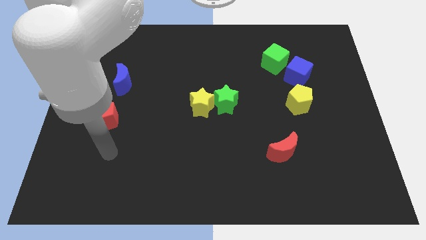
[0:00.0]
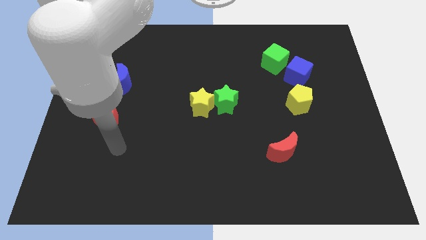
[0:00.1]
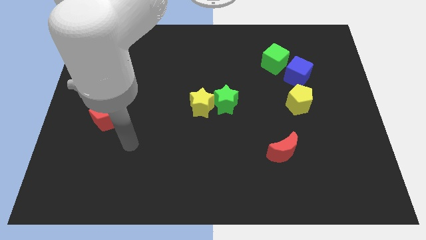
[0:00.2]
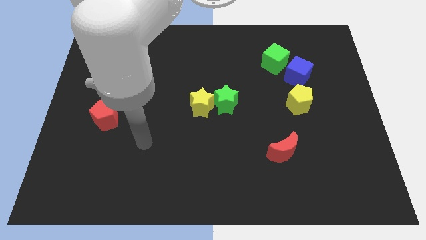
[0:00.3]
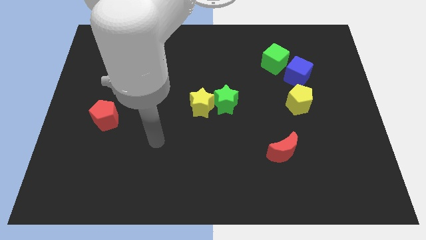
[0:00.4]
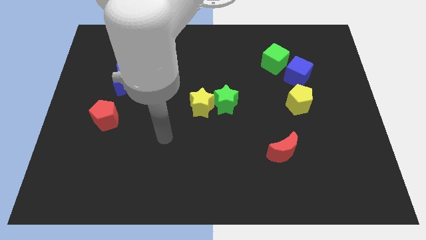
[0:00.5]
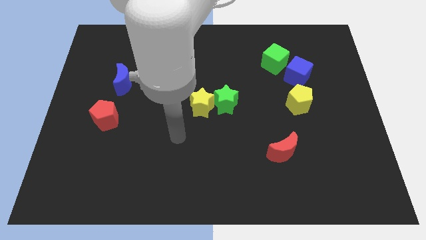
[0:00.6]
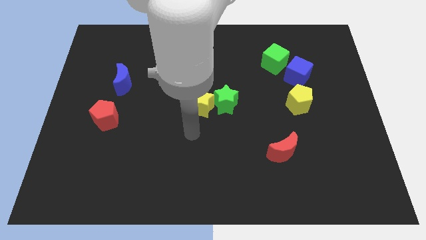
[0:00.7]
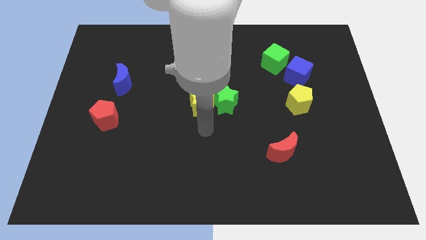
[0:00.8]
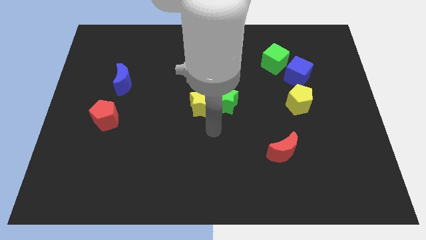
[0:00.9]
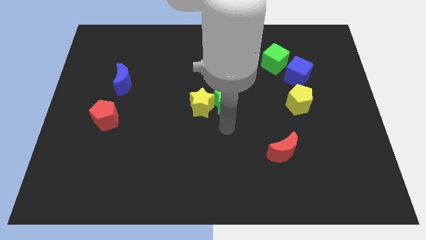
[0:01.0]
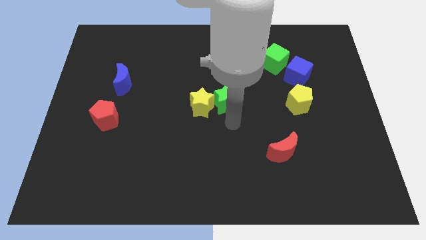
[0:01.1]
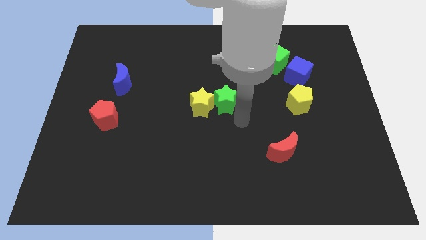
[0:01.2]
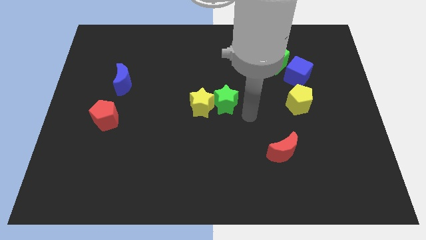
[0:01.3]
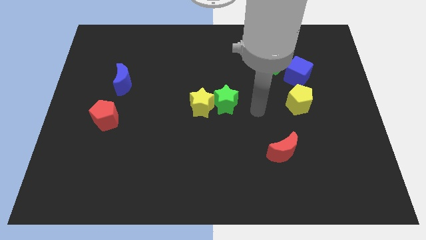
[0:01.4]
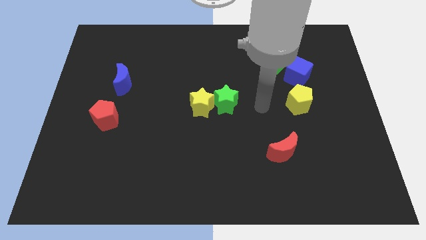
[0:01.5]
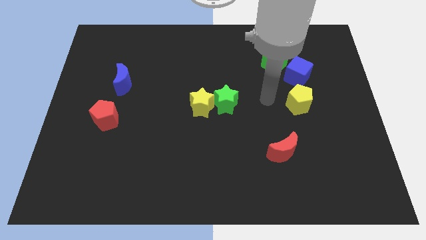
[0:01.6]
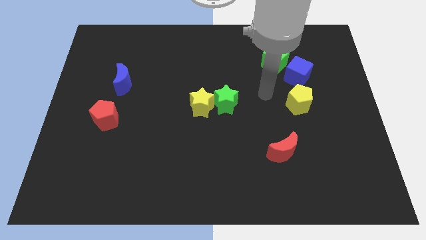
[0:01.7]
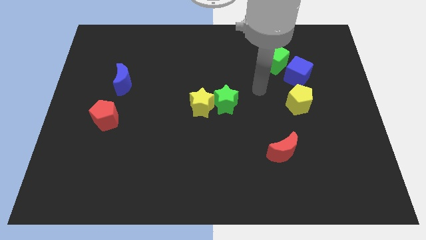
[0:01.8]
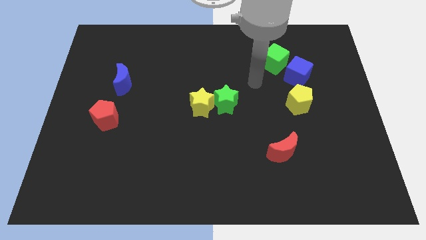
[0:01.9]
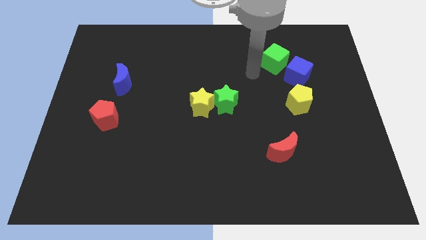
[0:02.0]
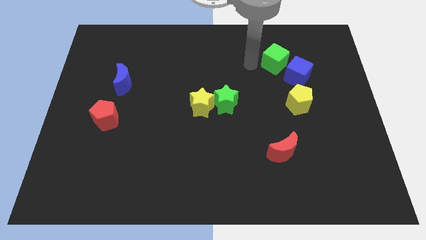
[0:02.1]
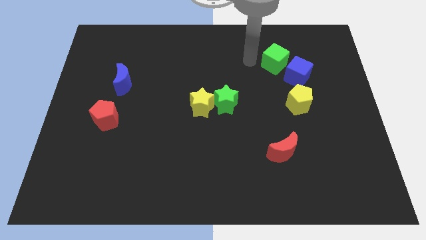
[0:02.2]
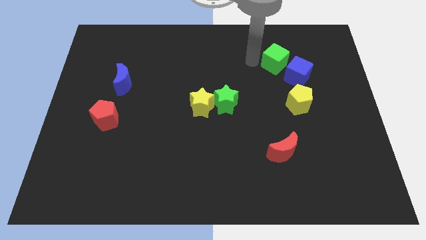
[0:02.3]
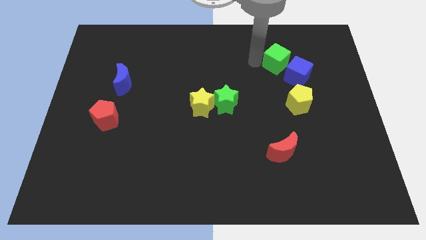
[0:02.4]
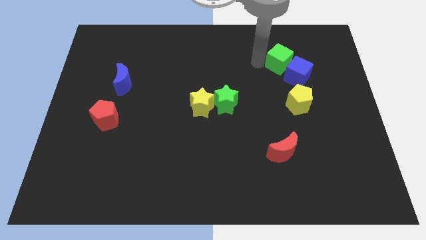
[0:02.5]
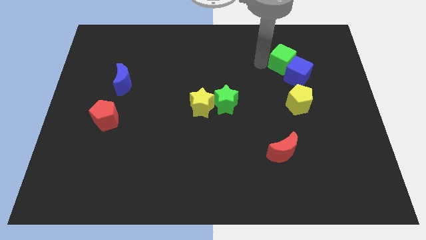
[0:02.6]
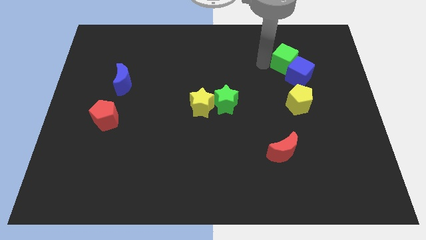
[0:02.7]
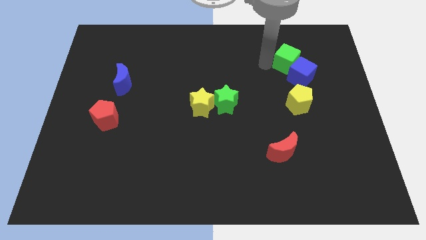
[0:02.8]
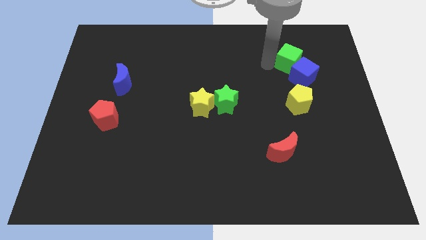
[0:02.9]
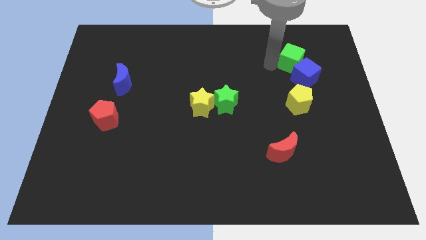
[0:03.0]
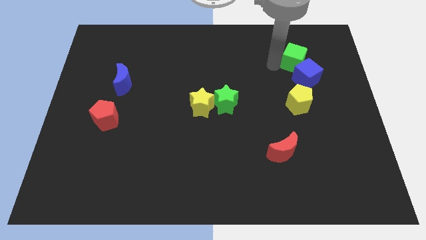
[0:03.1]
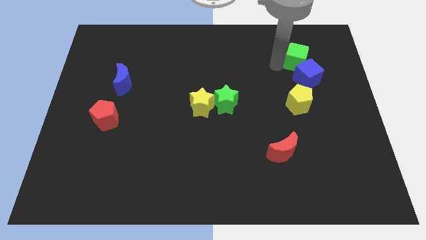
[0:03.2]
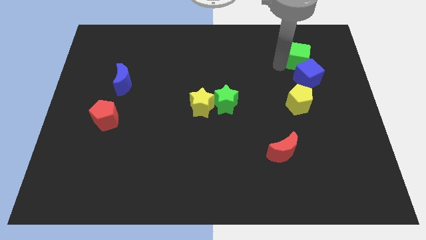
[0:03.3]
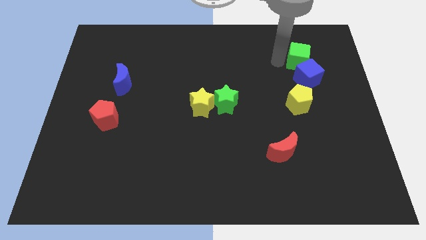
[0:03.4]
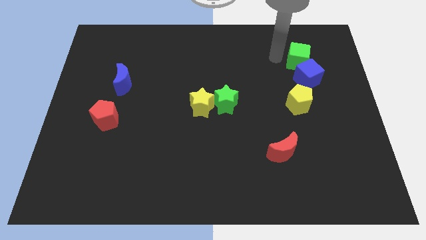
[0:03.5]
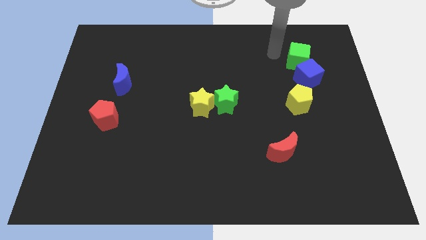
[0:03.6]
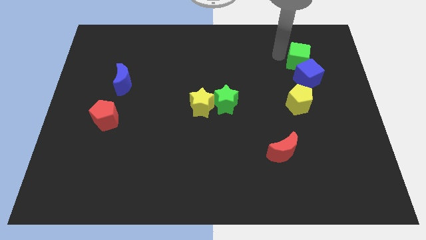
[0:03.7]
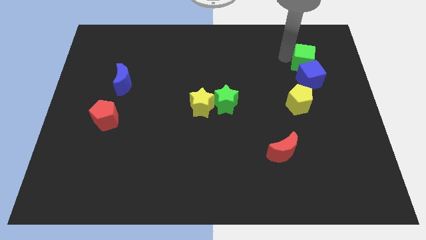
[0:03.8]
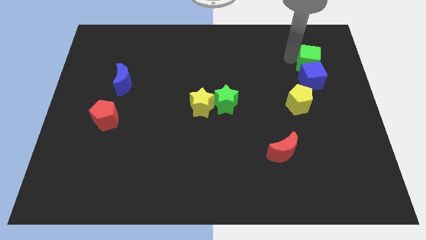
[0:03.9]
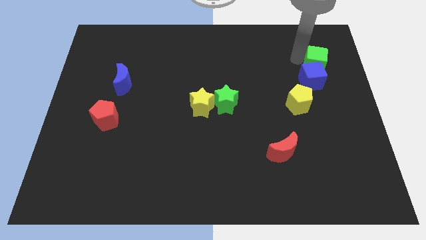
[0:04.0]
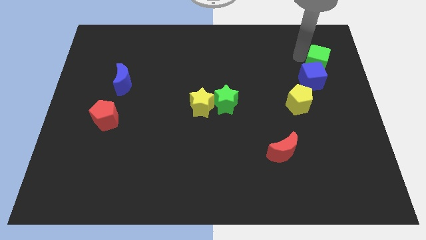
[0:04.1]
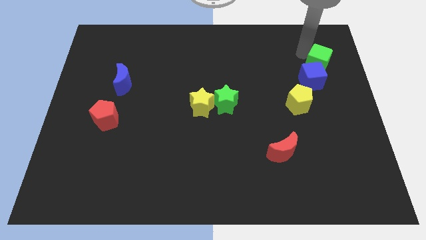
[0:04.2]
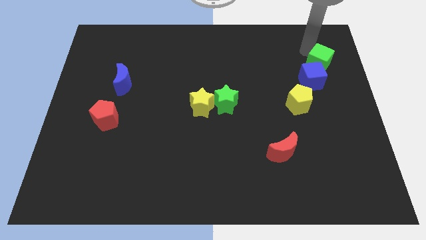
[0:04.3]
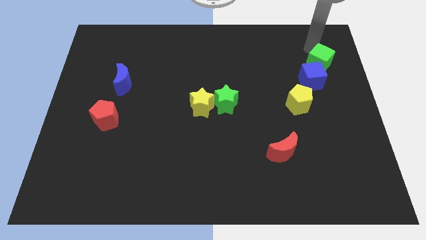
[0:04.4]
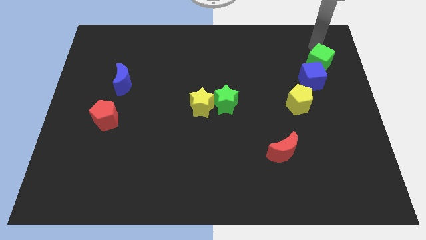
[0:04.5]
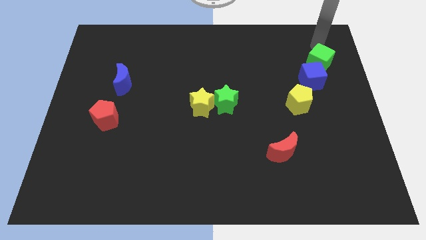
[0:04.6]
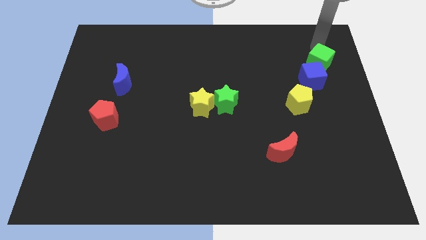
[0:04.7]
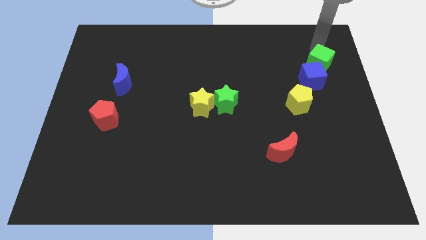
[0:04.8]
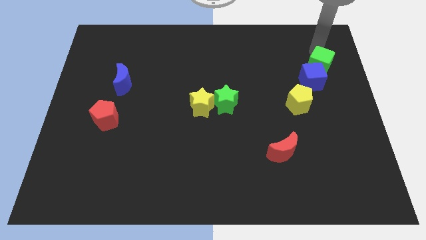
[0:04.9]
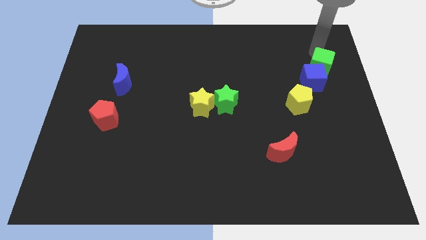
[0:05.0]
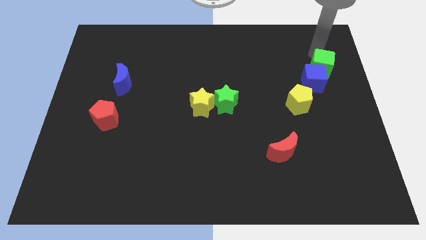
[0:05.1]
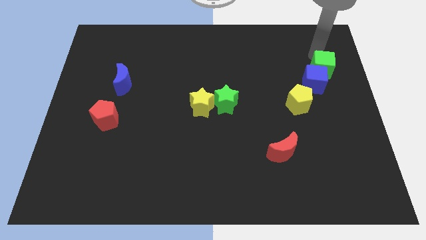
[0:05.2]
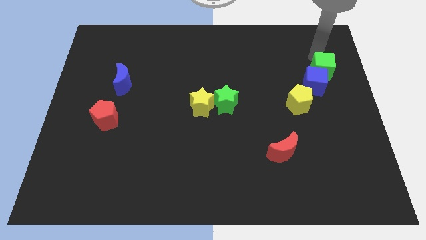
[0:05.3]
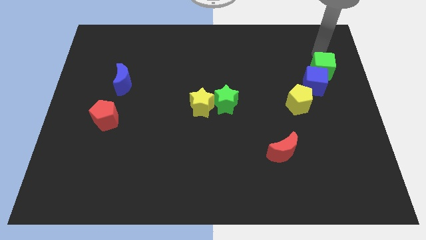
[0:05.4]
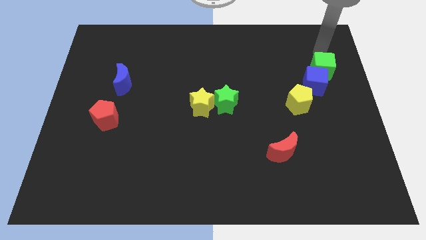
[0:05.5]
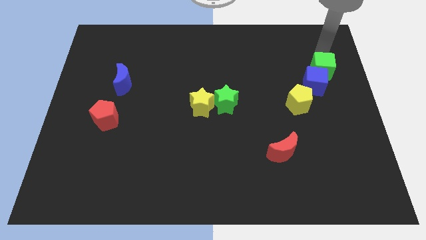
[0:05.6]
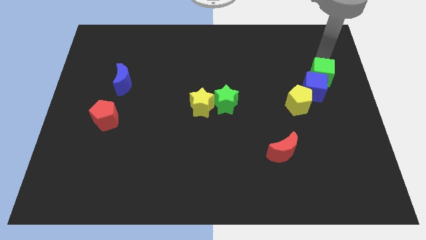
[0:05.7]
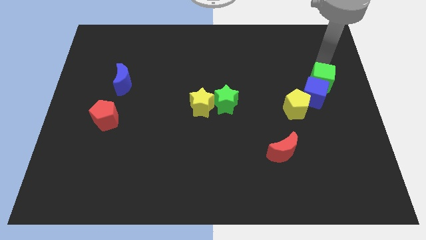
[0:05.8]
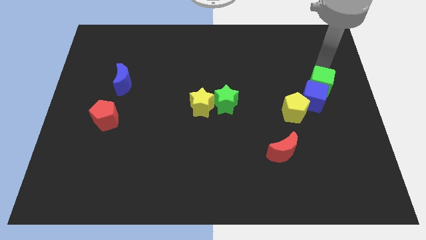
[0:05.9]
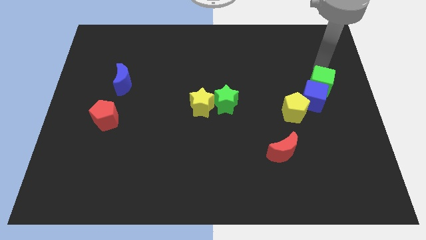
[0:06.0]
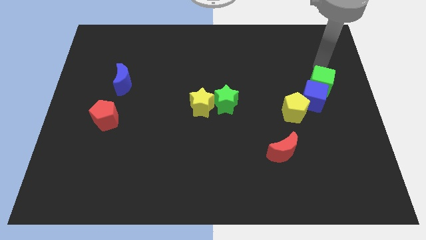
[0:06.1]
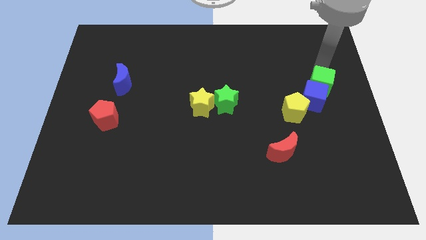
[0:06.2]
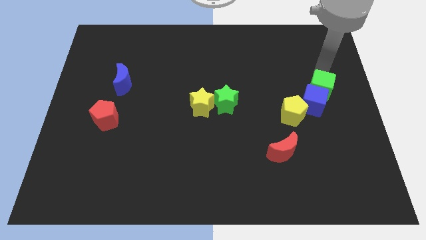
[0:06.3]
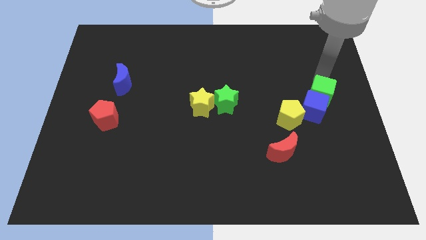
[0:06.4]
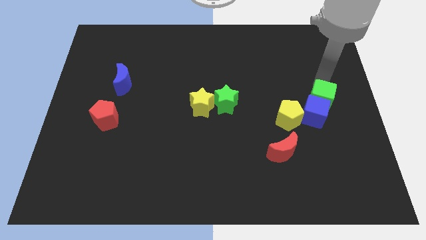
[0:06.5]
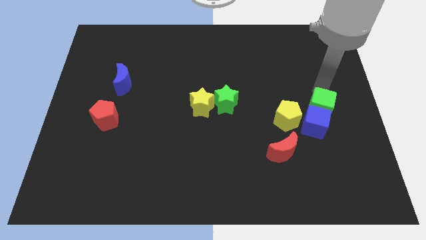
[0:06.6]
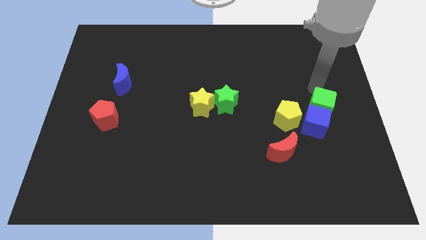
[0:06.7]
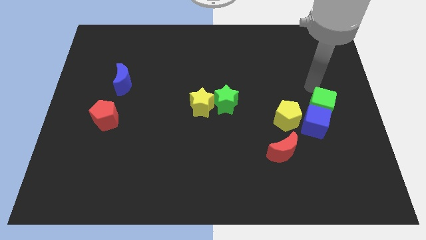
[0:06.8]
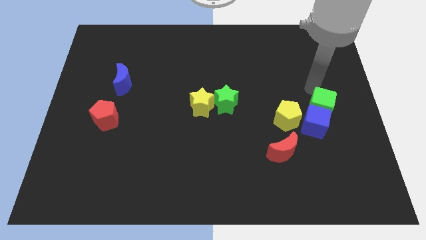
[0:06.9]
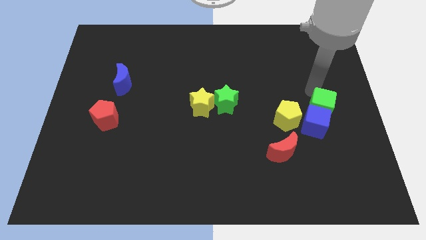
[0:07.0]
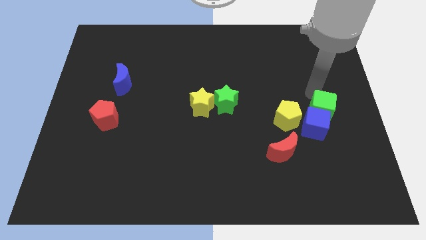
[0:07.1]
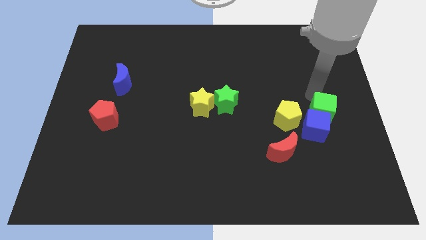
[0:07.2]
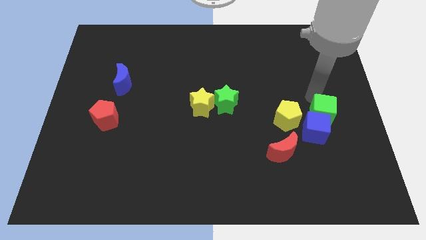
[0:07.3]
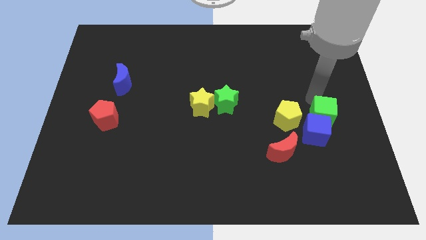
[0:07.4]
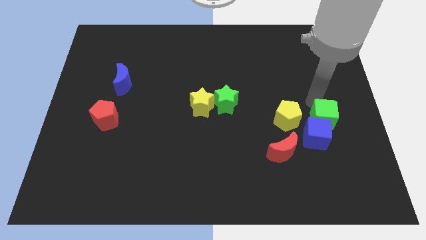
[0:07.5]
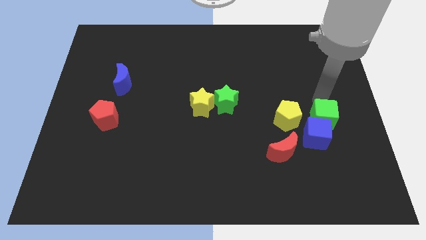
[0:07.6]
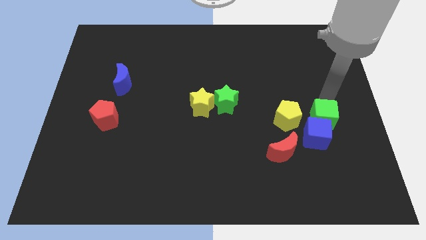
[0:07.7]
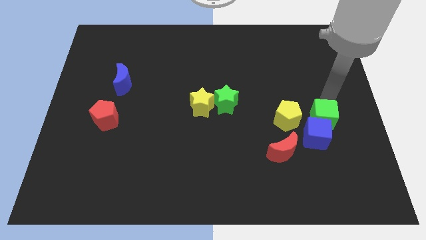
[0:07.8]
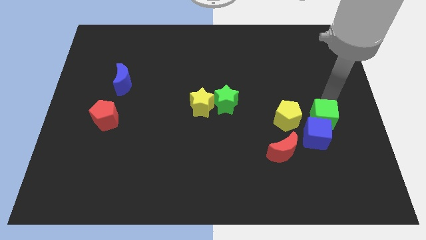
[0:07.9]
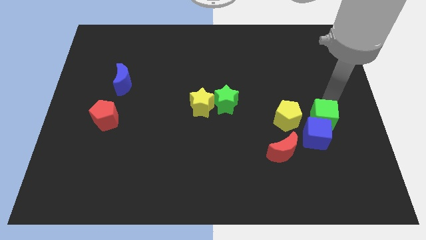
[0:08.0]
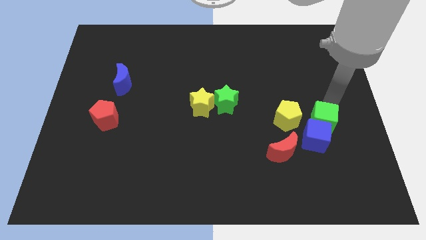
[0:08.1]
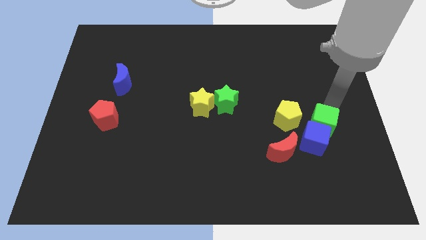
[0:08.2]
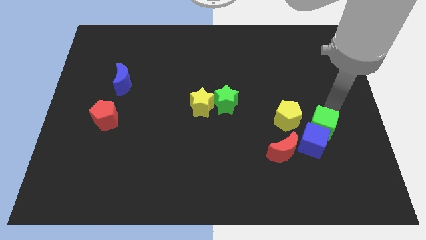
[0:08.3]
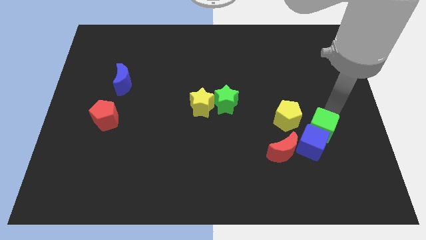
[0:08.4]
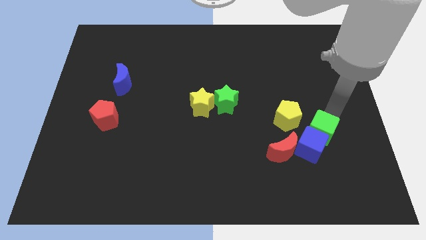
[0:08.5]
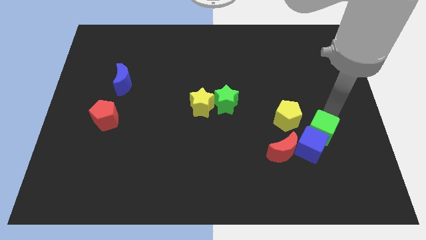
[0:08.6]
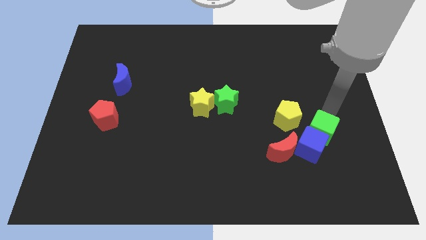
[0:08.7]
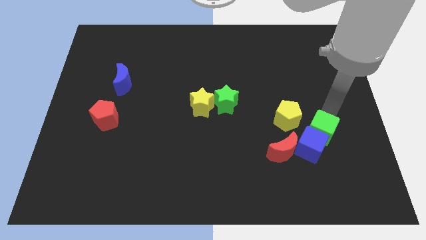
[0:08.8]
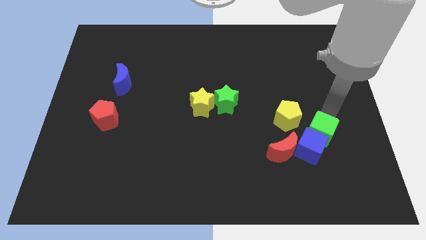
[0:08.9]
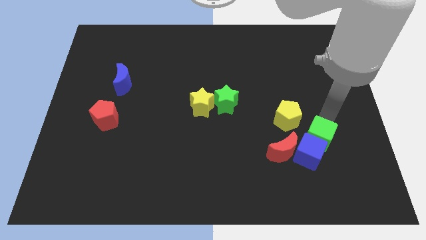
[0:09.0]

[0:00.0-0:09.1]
slide the green cube downwards
